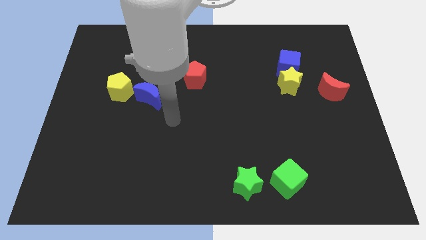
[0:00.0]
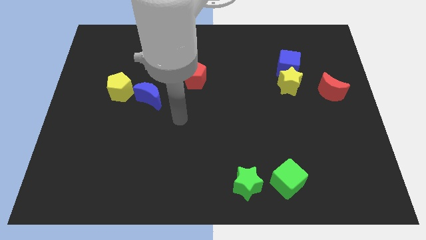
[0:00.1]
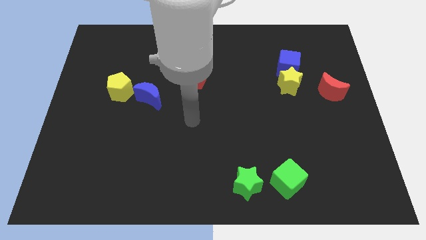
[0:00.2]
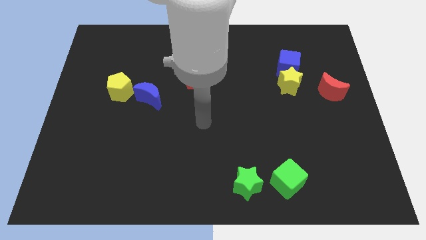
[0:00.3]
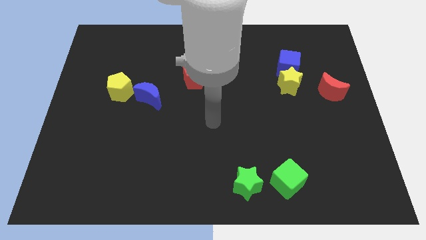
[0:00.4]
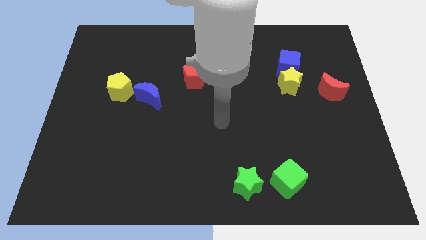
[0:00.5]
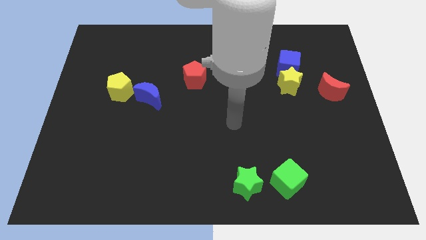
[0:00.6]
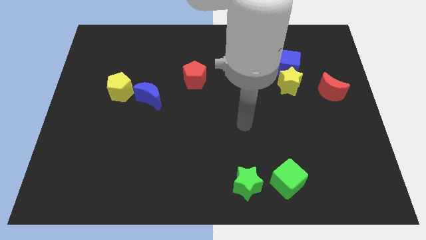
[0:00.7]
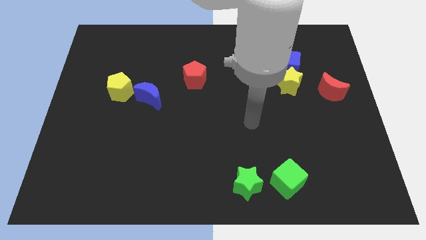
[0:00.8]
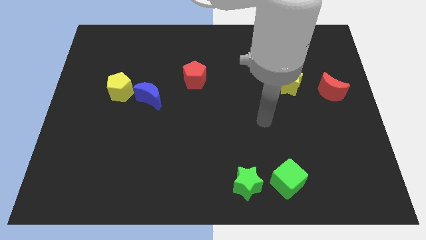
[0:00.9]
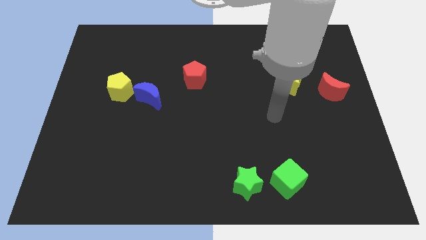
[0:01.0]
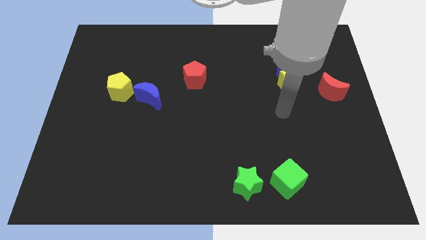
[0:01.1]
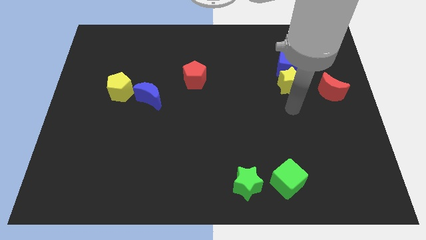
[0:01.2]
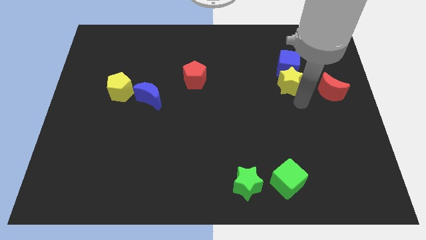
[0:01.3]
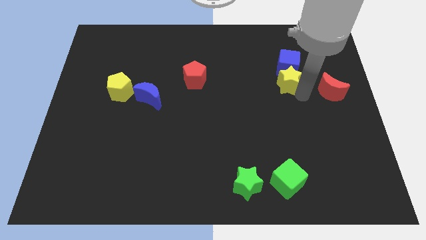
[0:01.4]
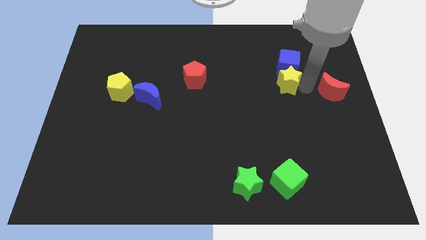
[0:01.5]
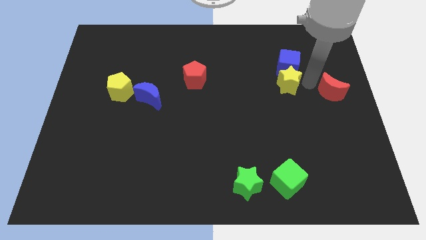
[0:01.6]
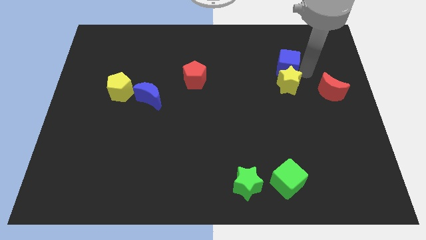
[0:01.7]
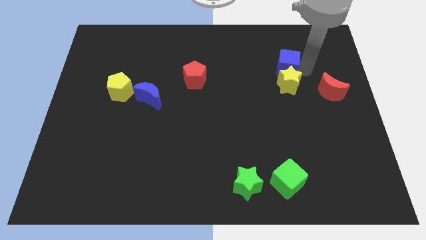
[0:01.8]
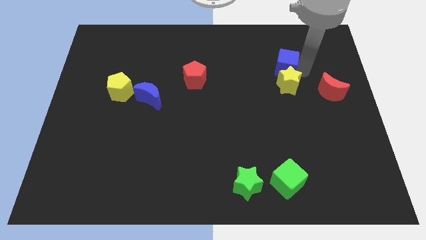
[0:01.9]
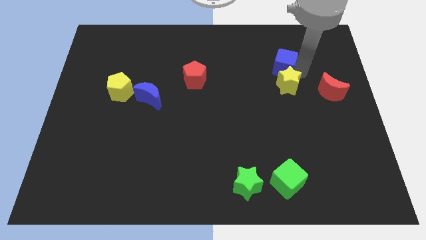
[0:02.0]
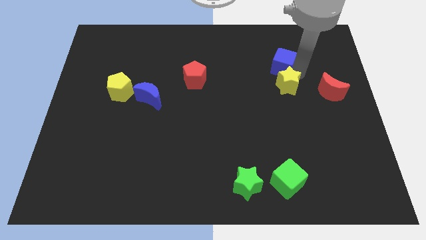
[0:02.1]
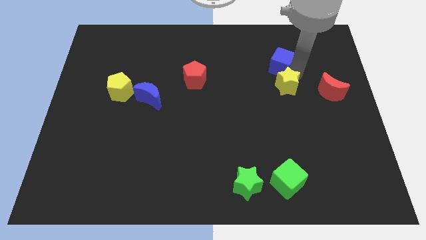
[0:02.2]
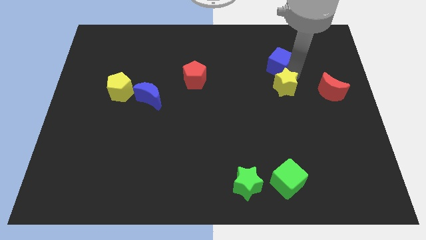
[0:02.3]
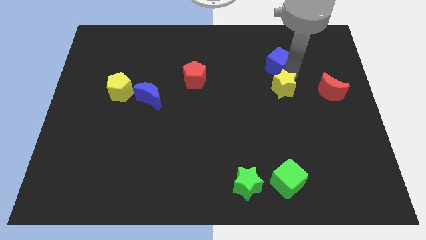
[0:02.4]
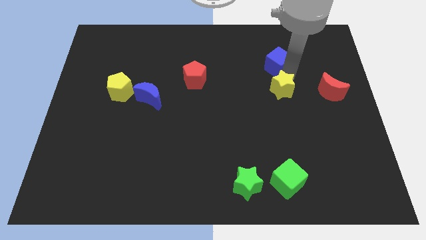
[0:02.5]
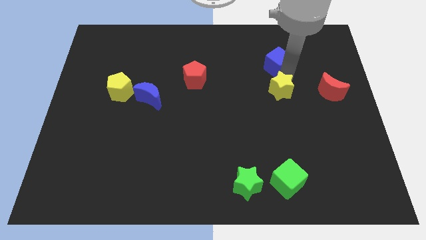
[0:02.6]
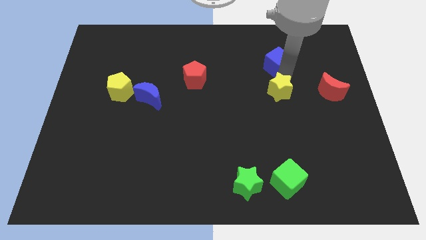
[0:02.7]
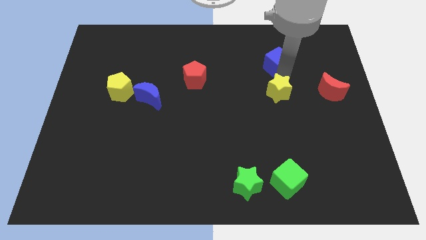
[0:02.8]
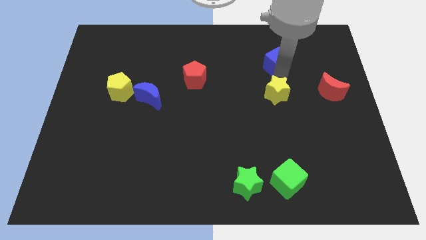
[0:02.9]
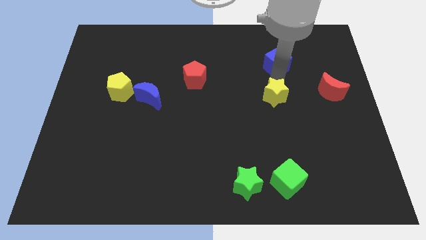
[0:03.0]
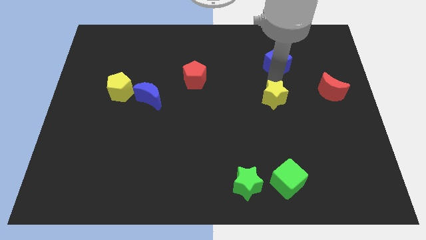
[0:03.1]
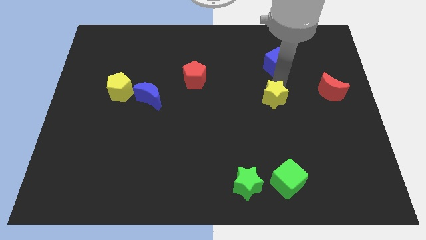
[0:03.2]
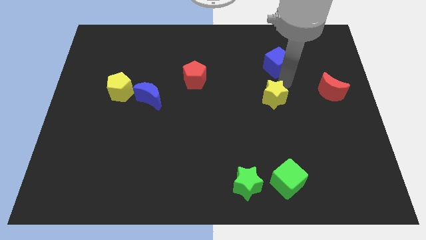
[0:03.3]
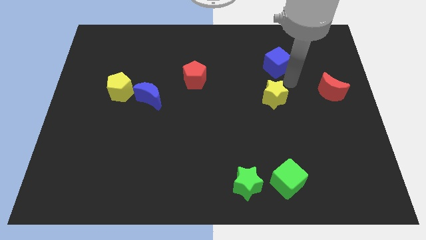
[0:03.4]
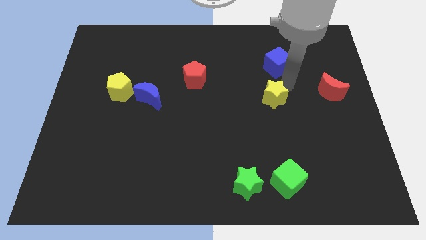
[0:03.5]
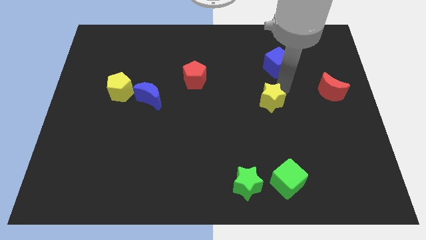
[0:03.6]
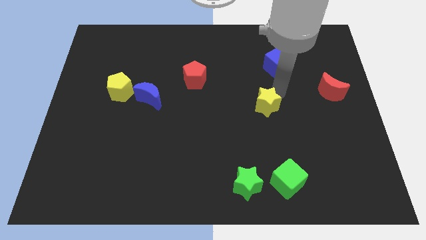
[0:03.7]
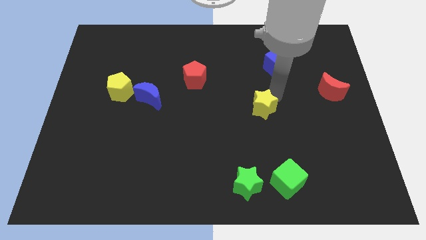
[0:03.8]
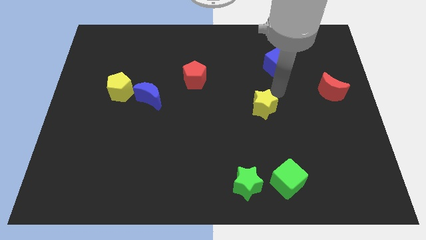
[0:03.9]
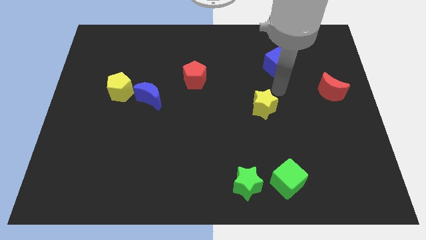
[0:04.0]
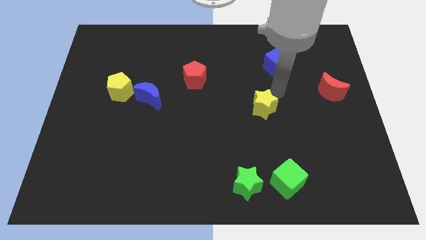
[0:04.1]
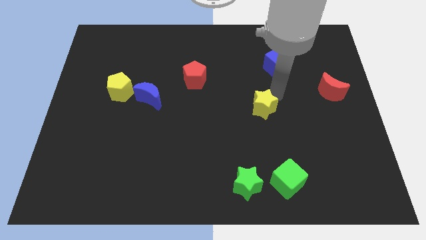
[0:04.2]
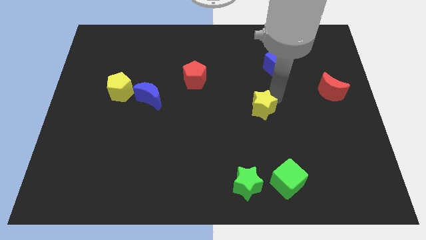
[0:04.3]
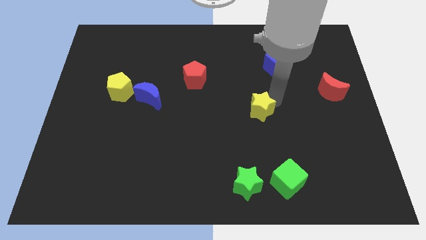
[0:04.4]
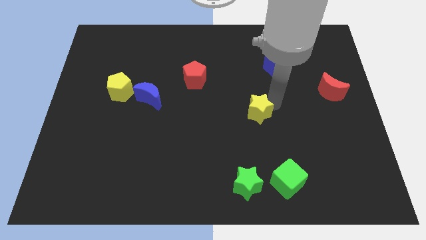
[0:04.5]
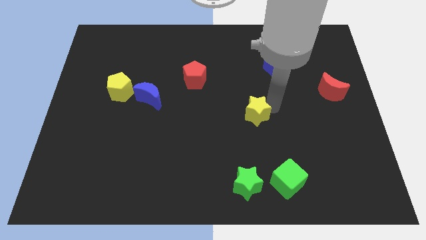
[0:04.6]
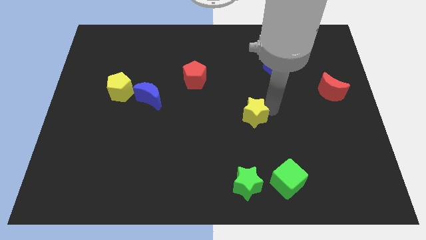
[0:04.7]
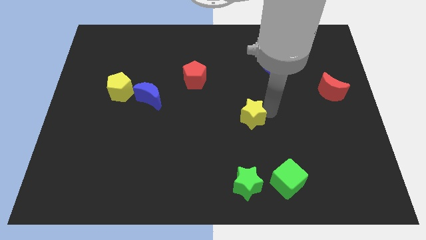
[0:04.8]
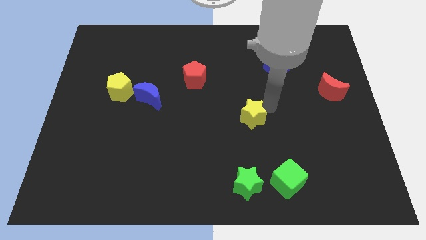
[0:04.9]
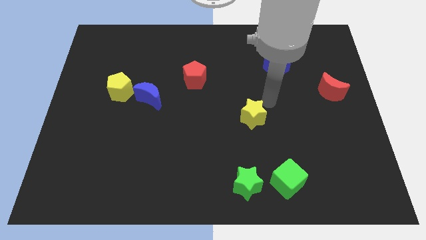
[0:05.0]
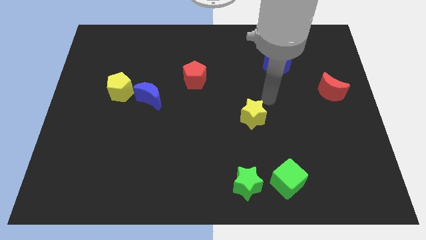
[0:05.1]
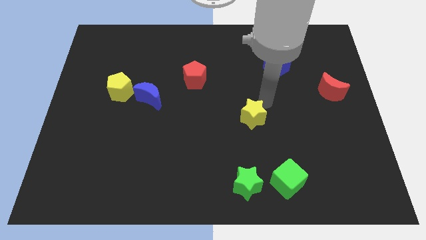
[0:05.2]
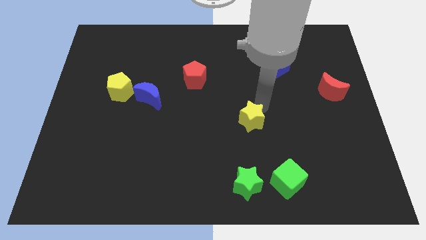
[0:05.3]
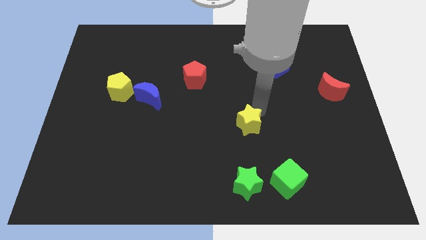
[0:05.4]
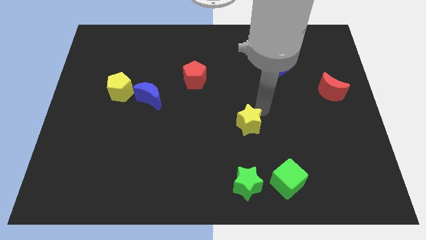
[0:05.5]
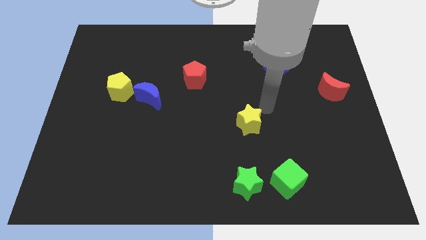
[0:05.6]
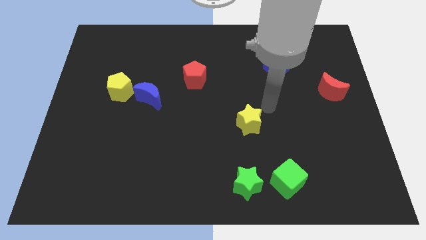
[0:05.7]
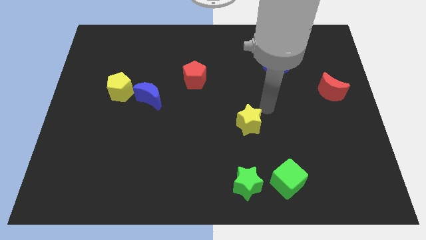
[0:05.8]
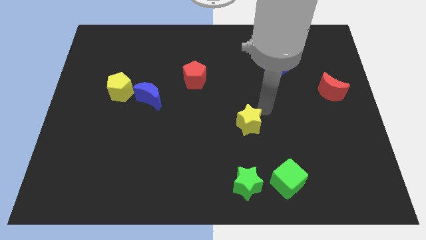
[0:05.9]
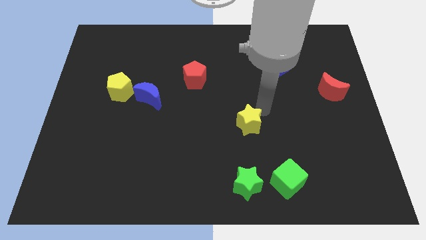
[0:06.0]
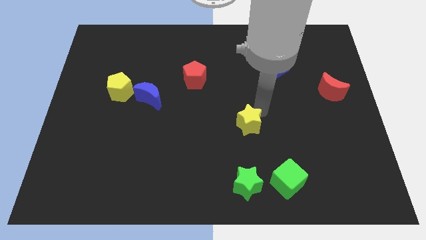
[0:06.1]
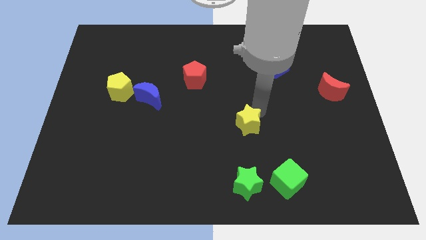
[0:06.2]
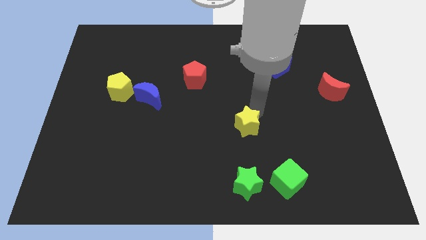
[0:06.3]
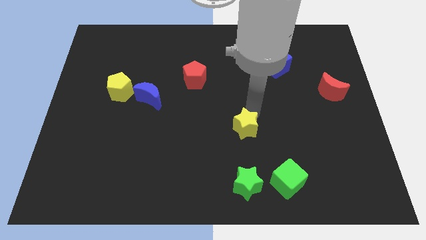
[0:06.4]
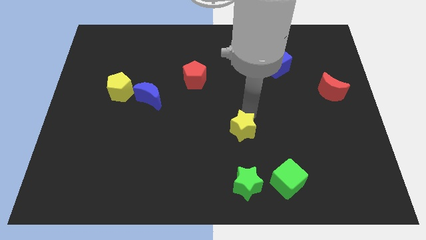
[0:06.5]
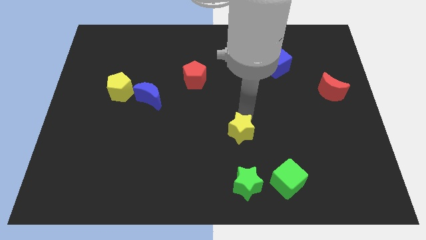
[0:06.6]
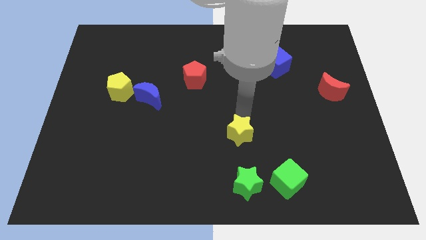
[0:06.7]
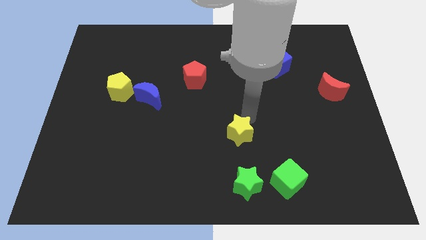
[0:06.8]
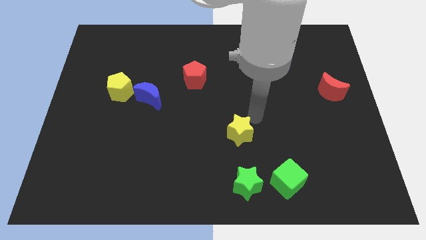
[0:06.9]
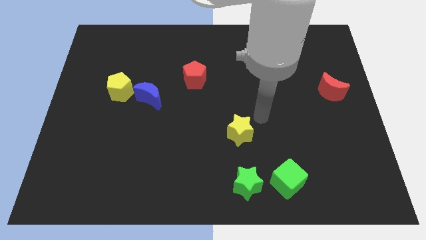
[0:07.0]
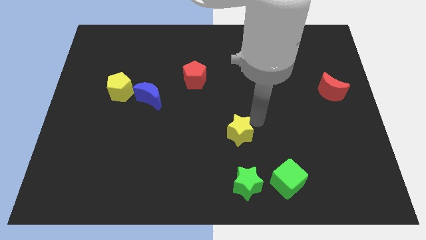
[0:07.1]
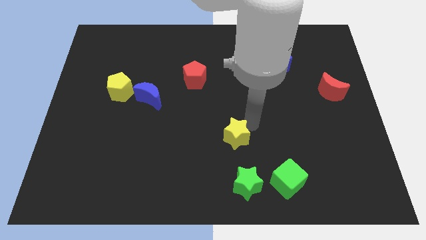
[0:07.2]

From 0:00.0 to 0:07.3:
push the yellow star downwards and then left

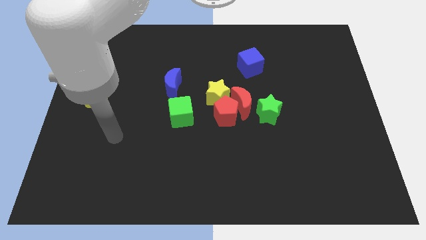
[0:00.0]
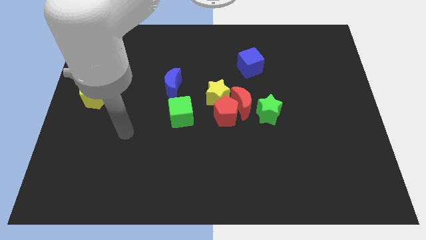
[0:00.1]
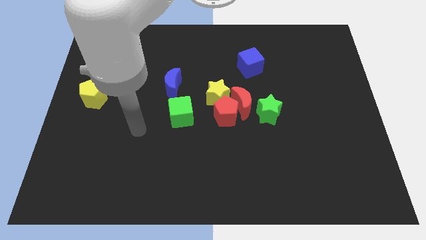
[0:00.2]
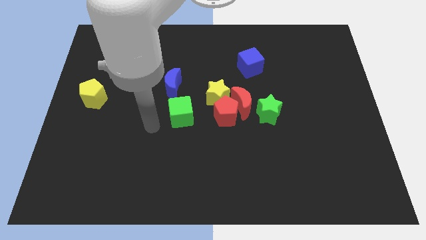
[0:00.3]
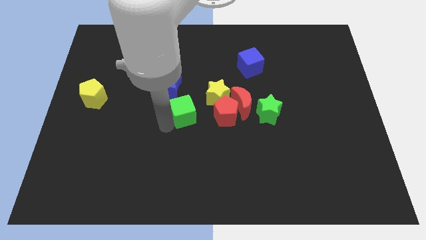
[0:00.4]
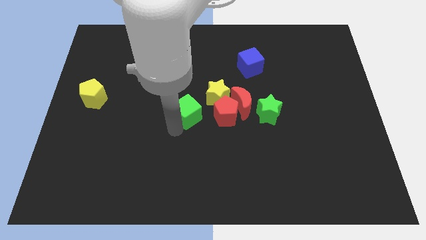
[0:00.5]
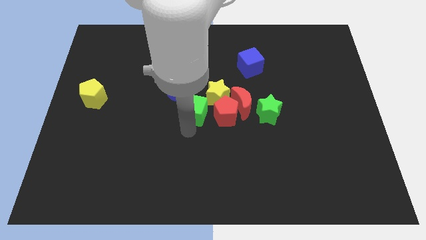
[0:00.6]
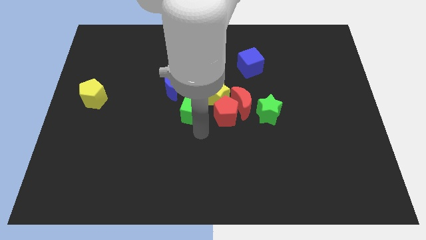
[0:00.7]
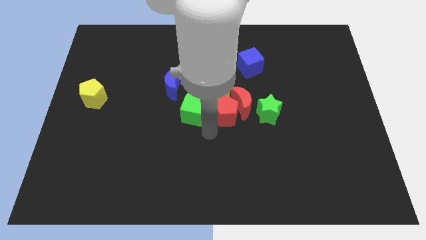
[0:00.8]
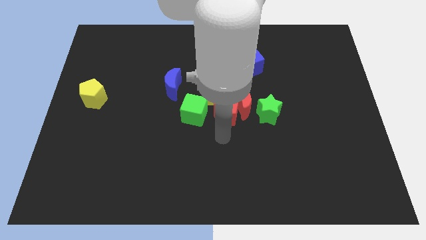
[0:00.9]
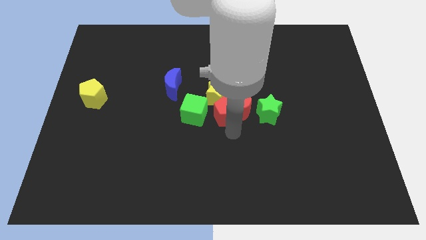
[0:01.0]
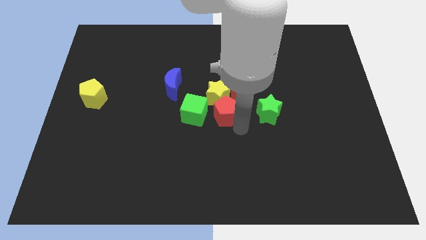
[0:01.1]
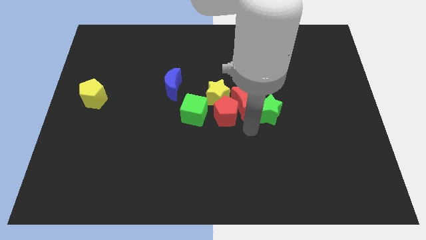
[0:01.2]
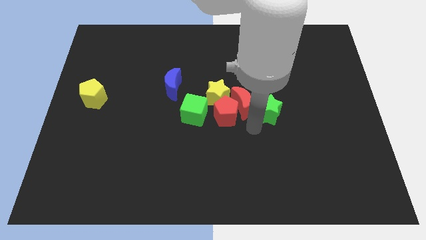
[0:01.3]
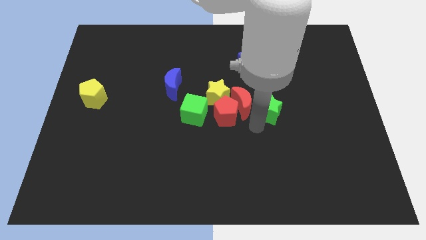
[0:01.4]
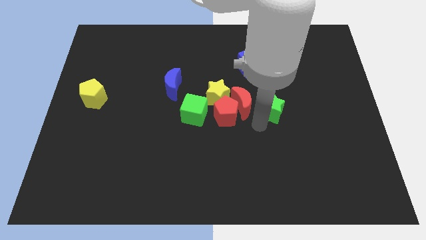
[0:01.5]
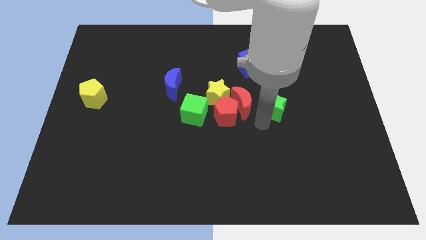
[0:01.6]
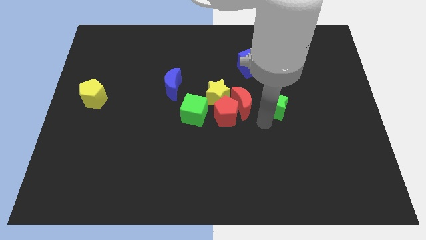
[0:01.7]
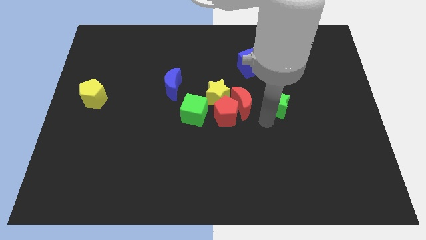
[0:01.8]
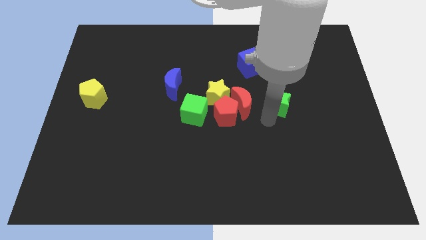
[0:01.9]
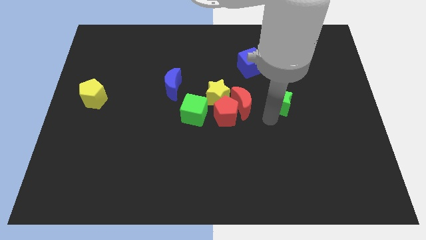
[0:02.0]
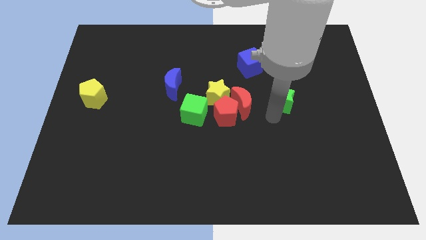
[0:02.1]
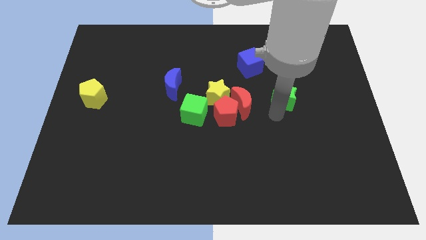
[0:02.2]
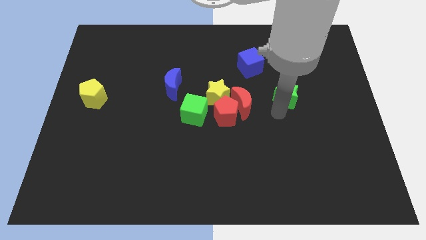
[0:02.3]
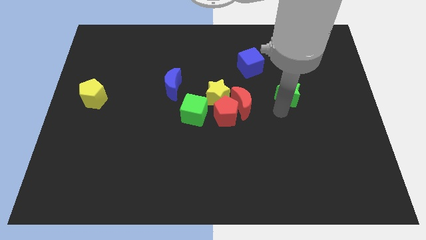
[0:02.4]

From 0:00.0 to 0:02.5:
move the green star upwards and then right slightly
